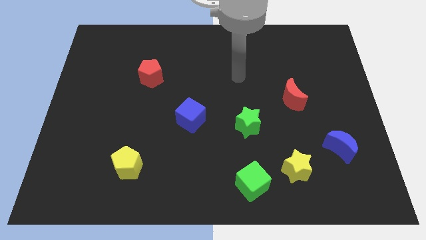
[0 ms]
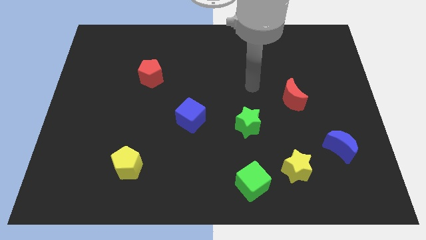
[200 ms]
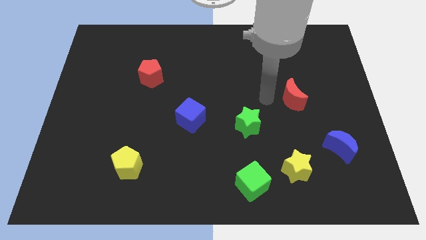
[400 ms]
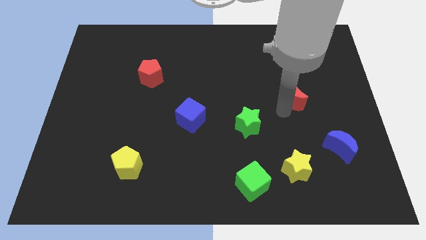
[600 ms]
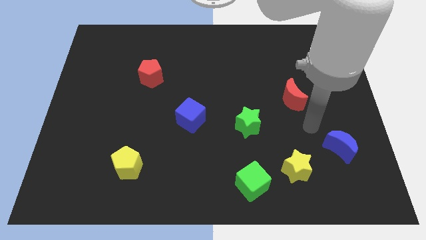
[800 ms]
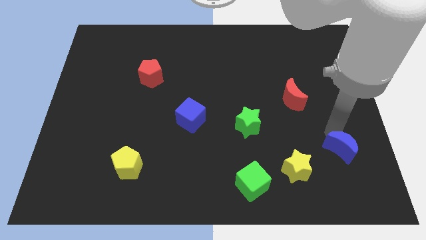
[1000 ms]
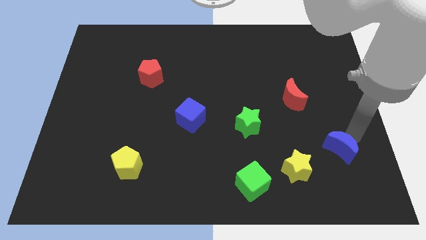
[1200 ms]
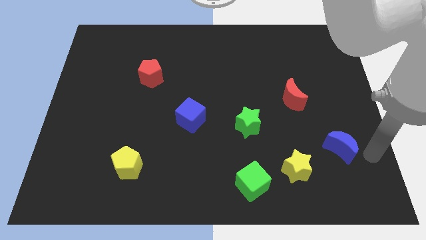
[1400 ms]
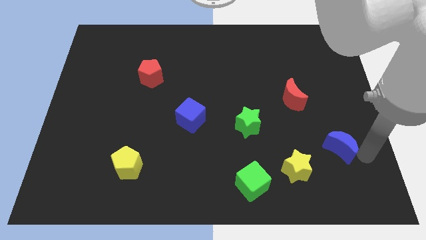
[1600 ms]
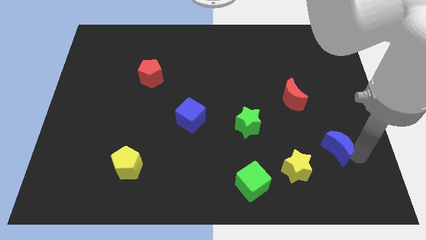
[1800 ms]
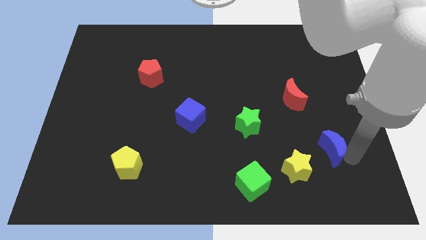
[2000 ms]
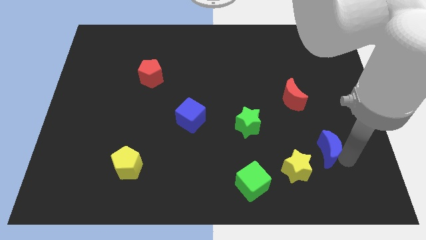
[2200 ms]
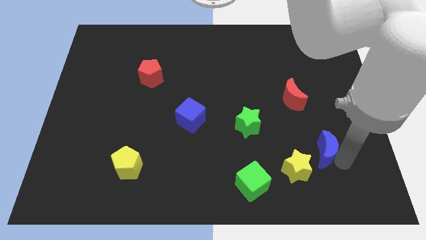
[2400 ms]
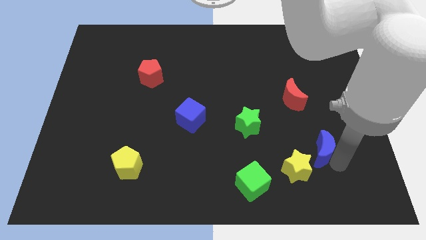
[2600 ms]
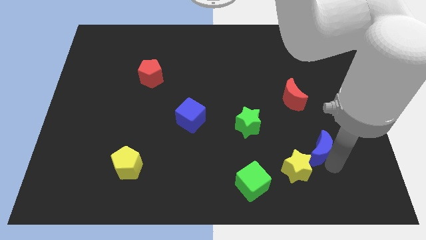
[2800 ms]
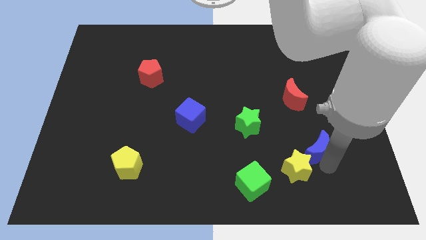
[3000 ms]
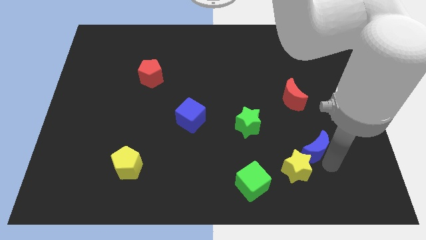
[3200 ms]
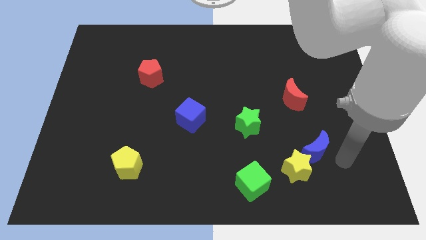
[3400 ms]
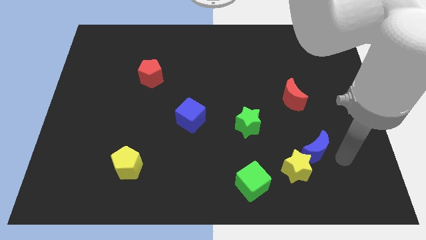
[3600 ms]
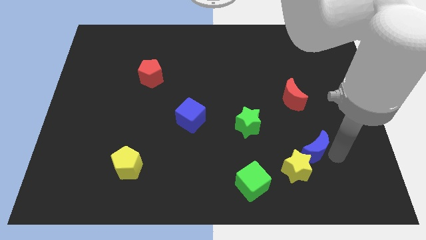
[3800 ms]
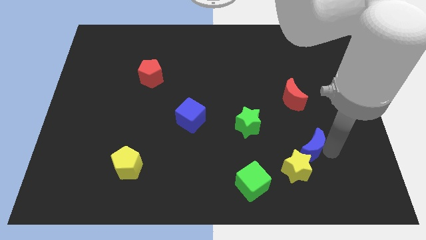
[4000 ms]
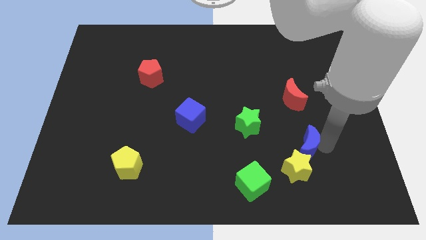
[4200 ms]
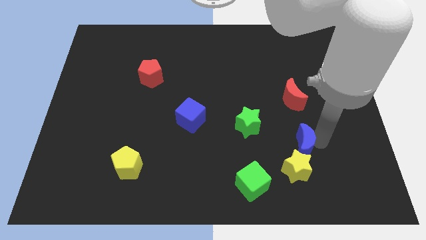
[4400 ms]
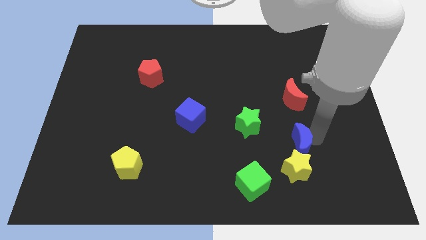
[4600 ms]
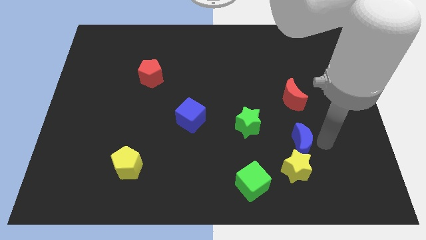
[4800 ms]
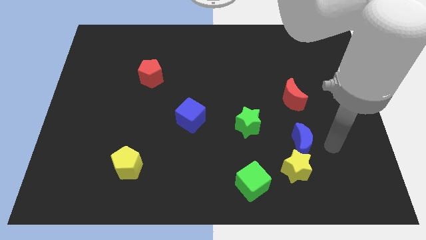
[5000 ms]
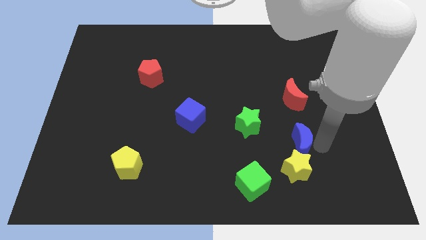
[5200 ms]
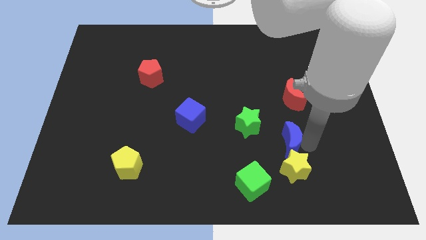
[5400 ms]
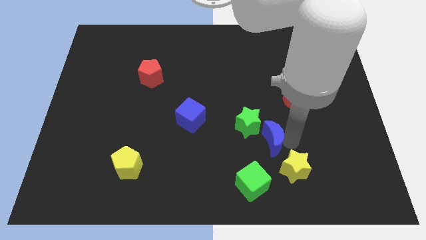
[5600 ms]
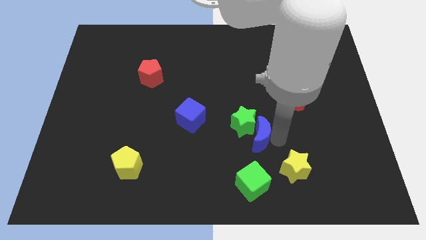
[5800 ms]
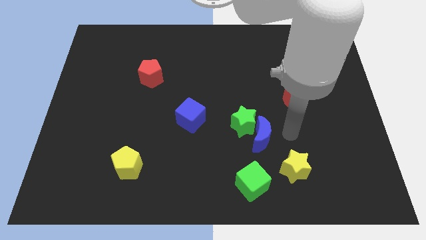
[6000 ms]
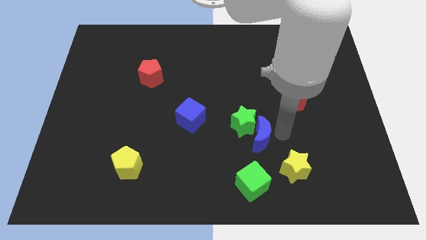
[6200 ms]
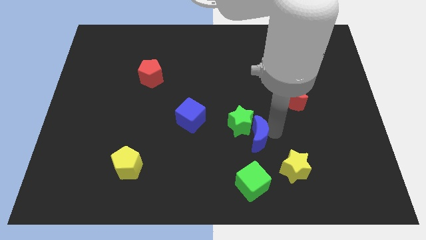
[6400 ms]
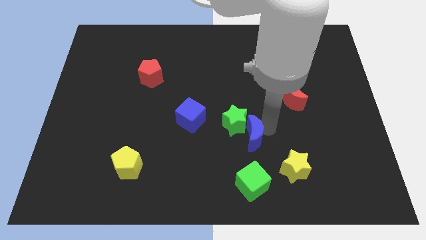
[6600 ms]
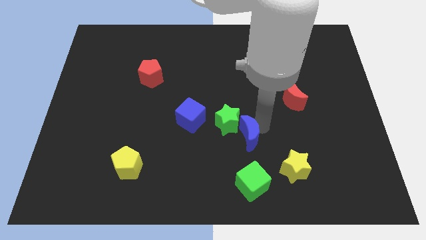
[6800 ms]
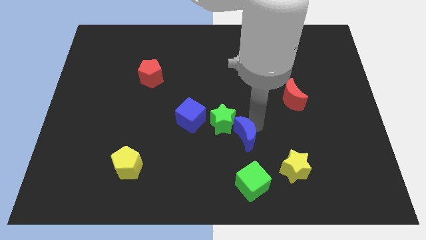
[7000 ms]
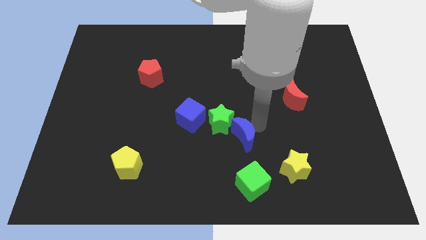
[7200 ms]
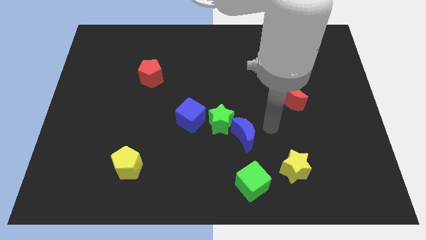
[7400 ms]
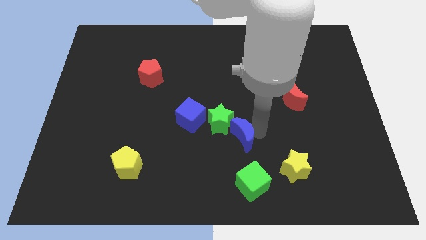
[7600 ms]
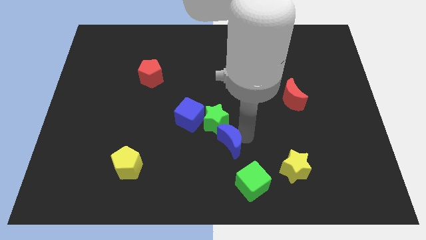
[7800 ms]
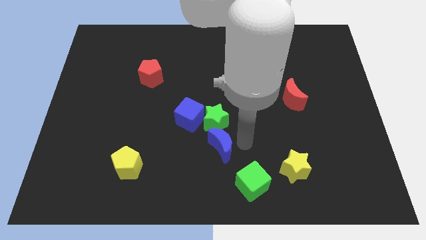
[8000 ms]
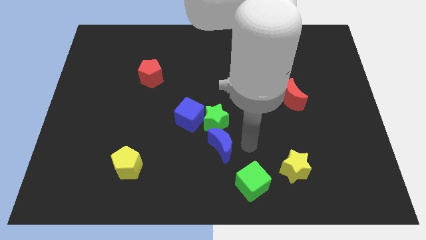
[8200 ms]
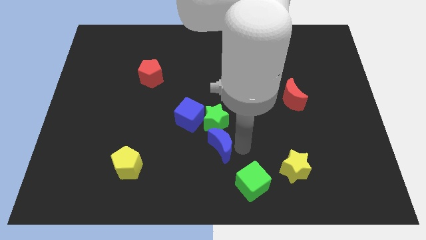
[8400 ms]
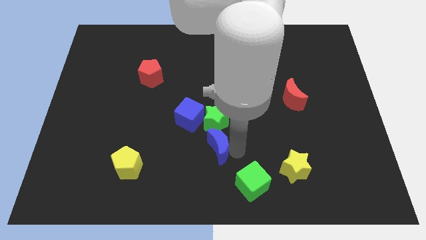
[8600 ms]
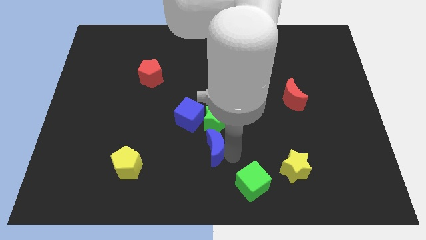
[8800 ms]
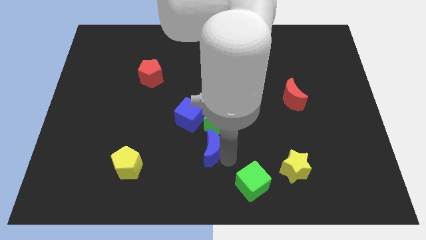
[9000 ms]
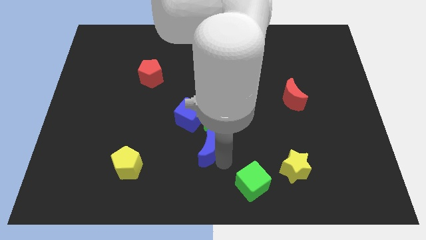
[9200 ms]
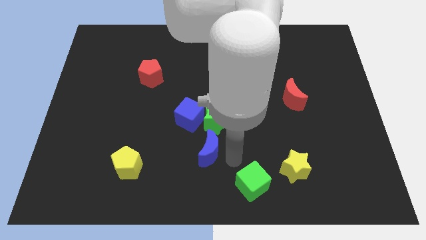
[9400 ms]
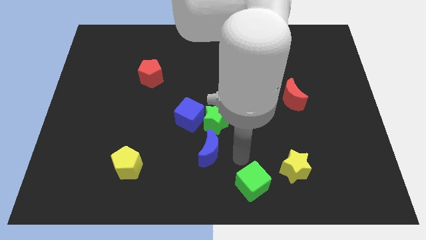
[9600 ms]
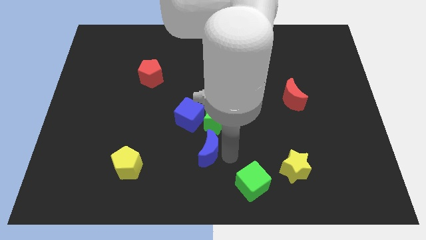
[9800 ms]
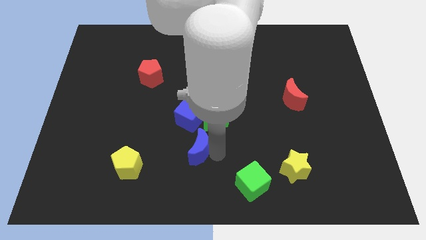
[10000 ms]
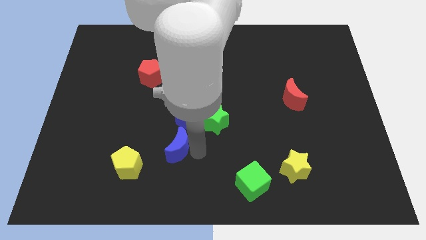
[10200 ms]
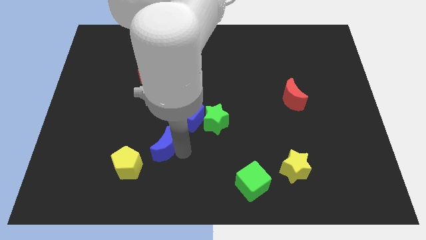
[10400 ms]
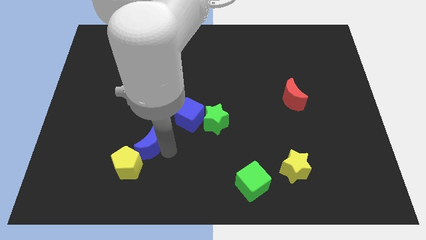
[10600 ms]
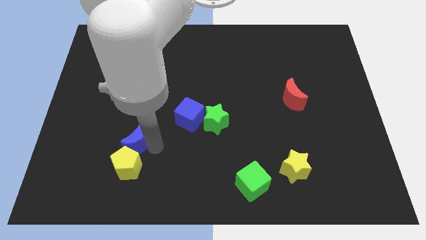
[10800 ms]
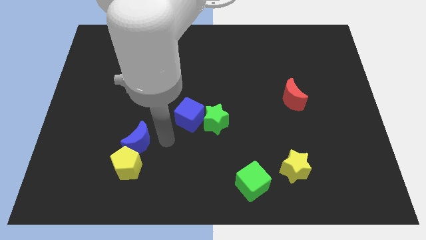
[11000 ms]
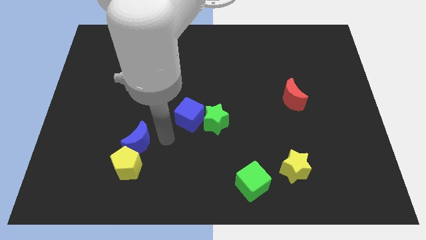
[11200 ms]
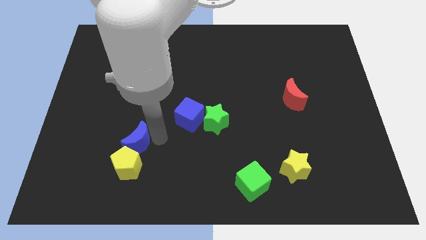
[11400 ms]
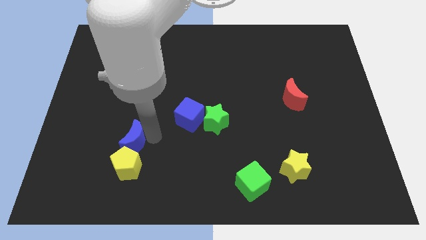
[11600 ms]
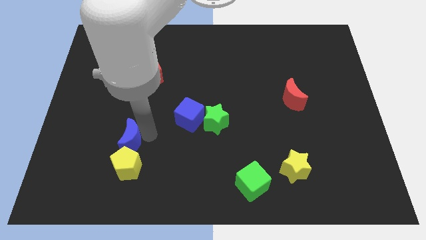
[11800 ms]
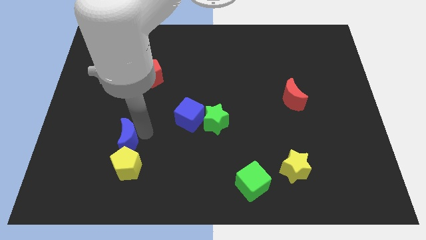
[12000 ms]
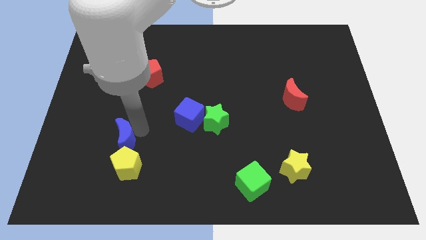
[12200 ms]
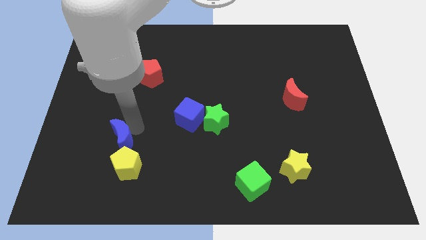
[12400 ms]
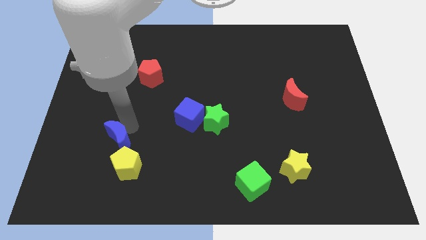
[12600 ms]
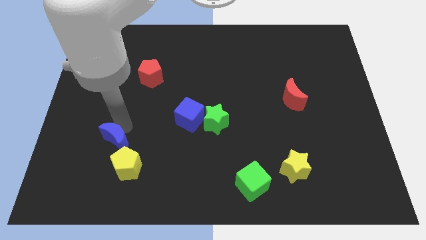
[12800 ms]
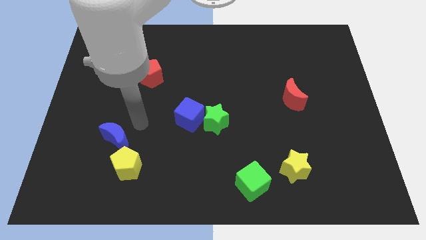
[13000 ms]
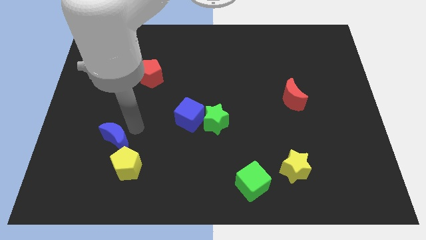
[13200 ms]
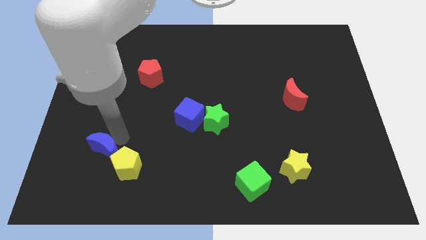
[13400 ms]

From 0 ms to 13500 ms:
move the blue moon left of the yellow pentagon
